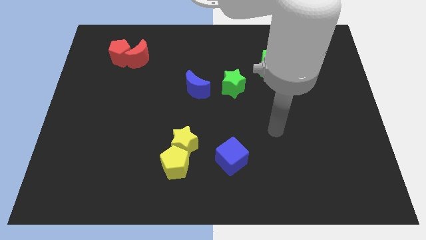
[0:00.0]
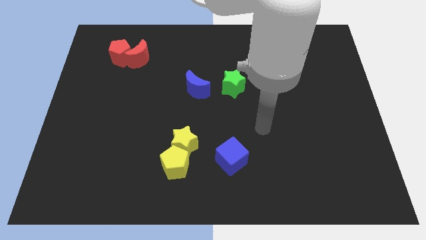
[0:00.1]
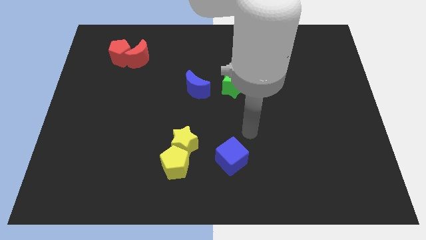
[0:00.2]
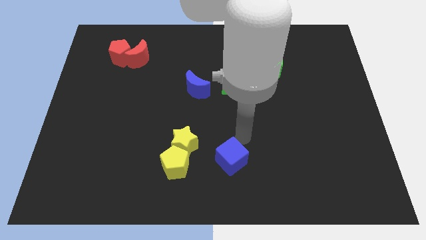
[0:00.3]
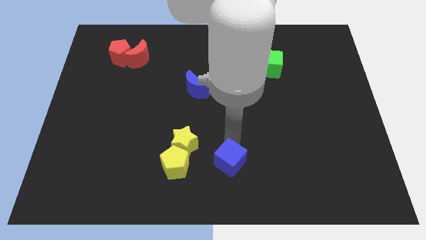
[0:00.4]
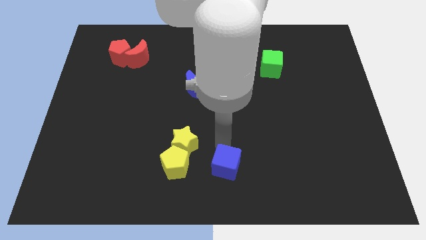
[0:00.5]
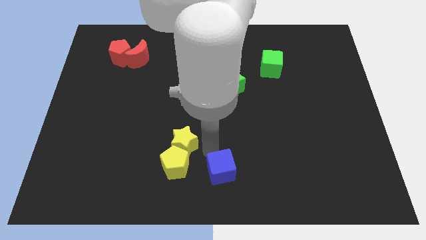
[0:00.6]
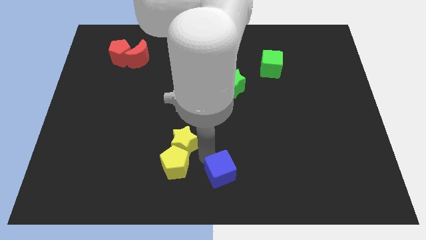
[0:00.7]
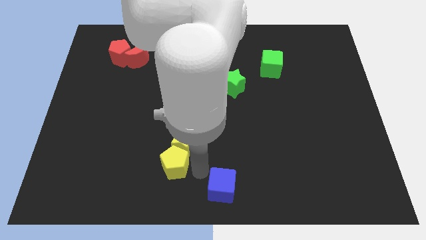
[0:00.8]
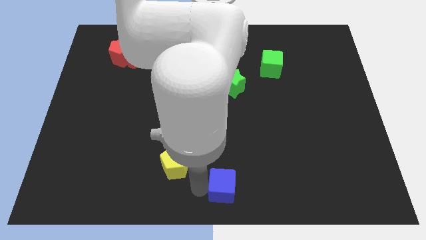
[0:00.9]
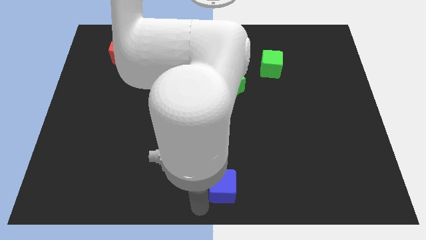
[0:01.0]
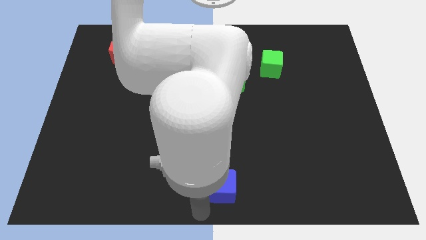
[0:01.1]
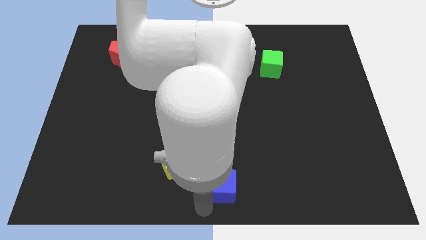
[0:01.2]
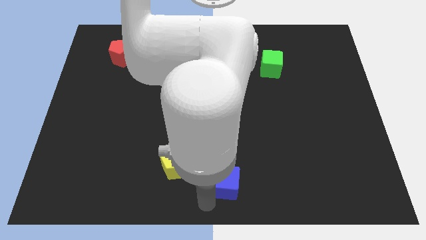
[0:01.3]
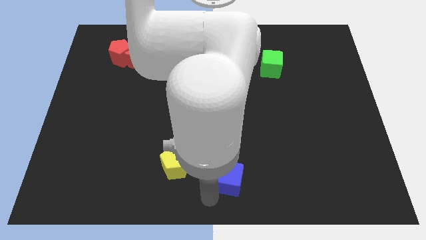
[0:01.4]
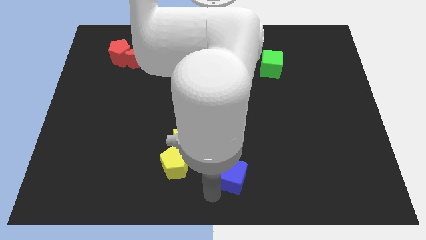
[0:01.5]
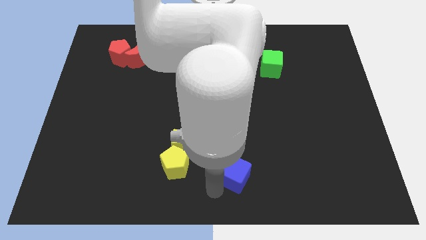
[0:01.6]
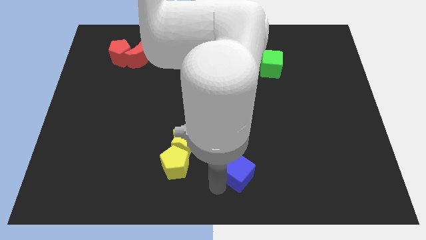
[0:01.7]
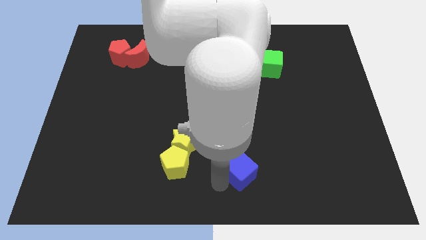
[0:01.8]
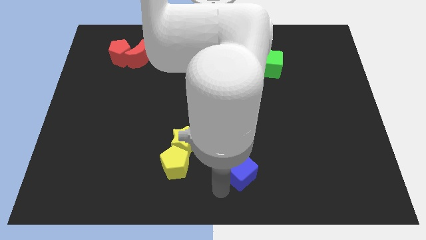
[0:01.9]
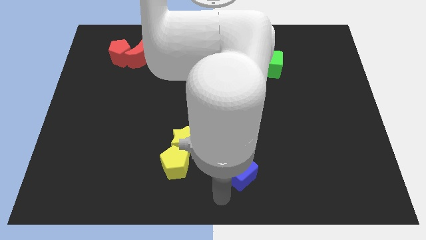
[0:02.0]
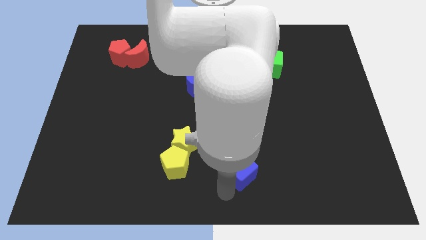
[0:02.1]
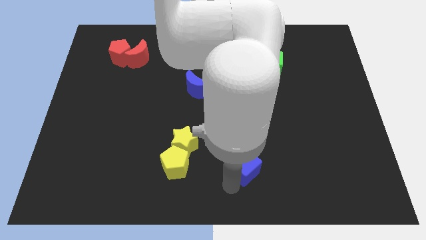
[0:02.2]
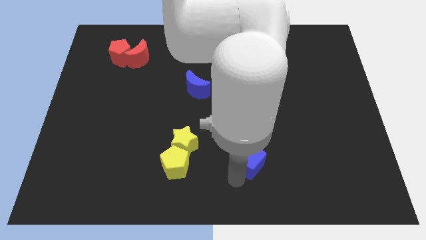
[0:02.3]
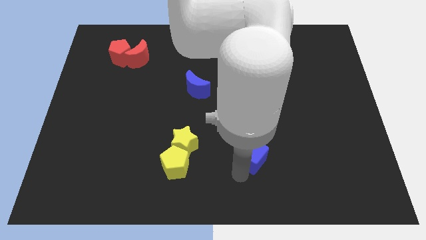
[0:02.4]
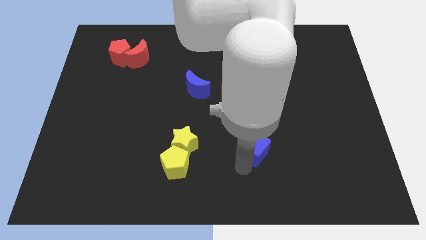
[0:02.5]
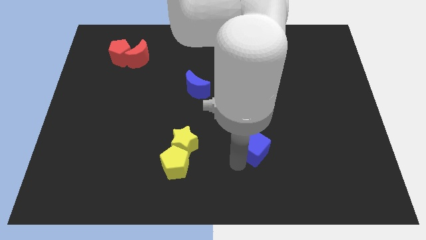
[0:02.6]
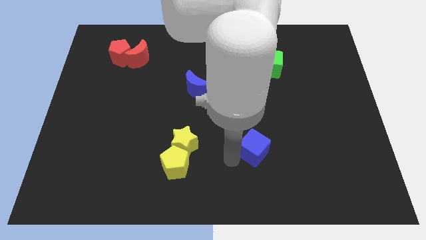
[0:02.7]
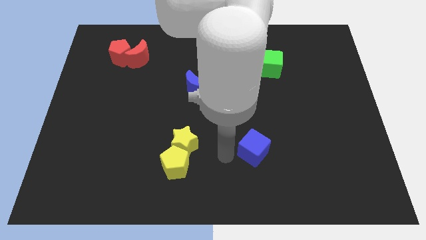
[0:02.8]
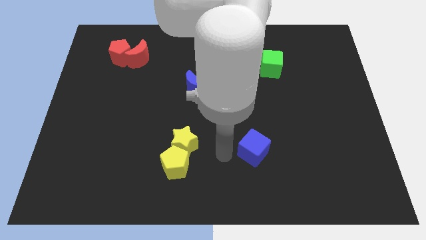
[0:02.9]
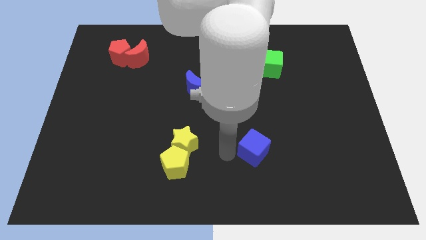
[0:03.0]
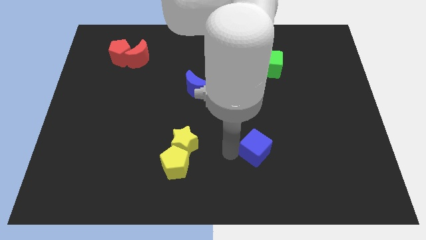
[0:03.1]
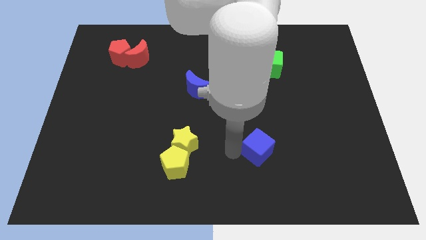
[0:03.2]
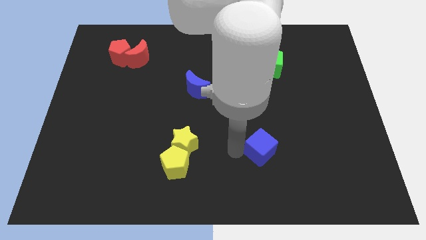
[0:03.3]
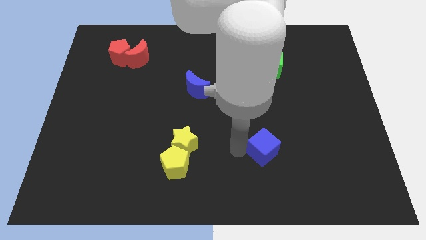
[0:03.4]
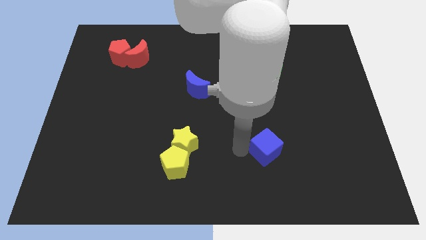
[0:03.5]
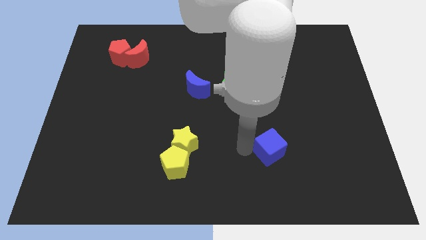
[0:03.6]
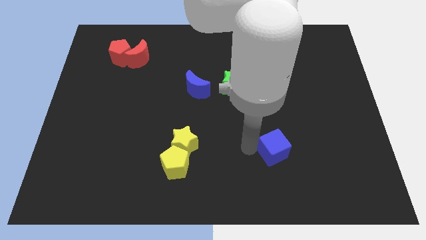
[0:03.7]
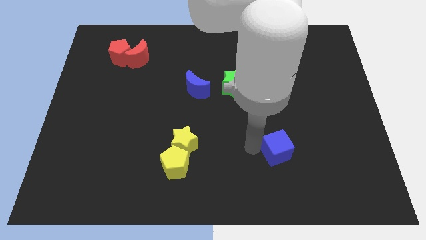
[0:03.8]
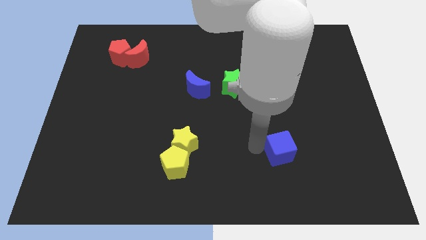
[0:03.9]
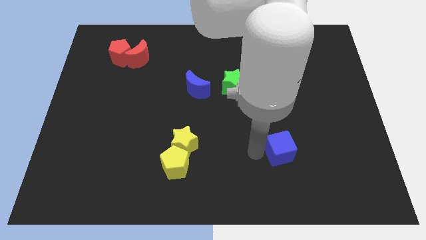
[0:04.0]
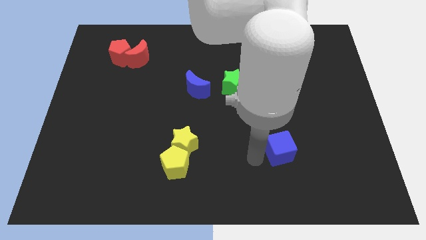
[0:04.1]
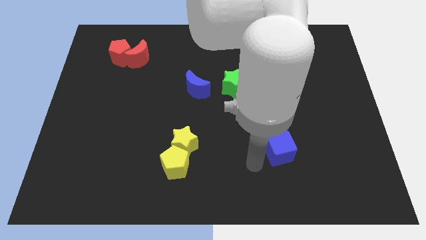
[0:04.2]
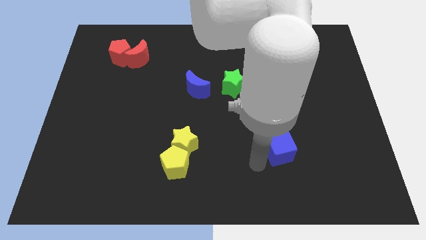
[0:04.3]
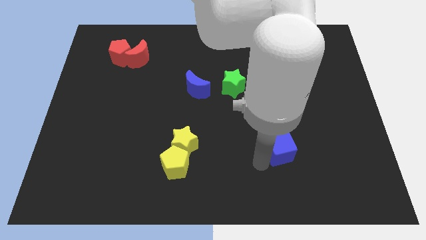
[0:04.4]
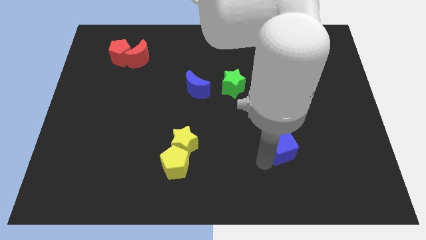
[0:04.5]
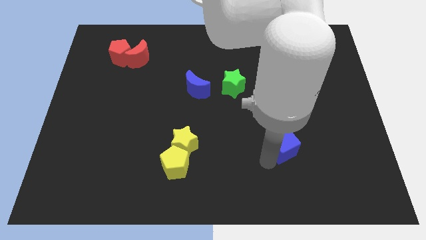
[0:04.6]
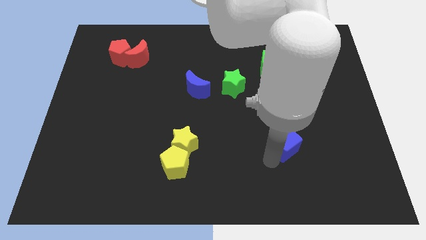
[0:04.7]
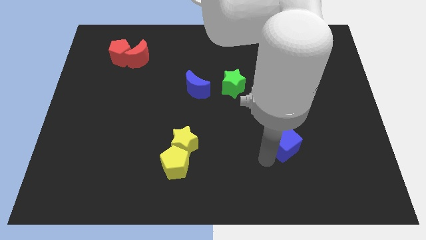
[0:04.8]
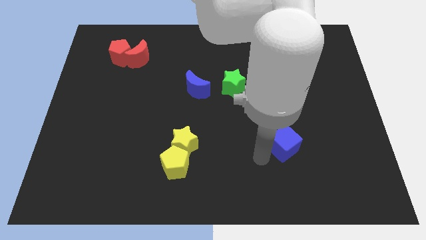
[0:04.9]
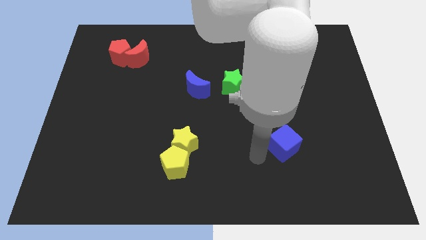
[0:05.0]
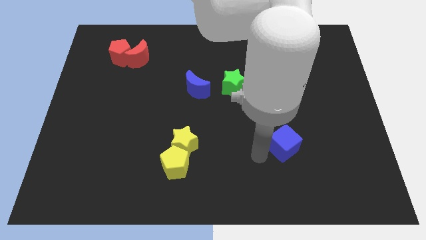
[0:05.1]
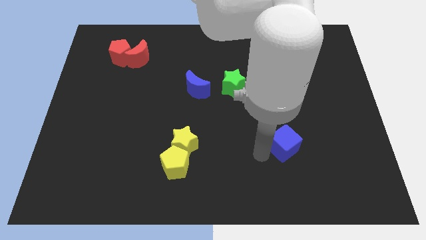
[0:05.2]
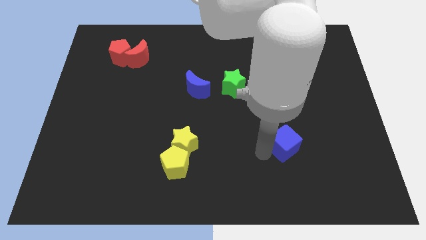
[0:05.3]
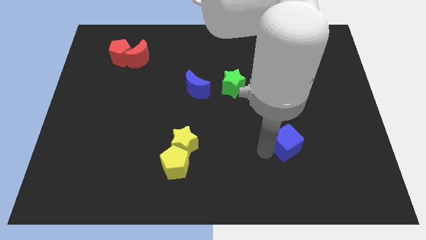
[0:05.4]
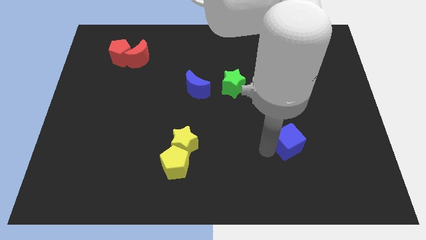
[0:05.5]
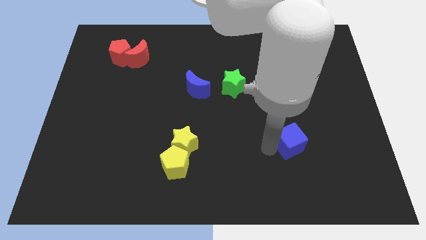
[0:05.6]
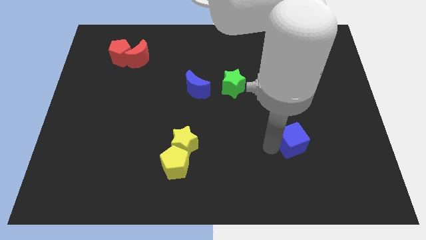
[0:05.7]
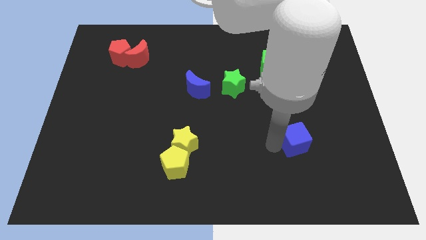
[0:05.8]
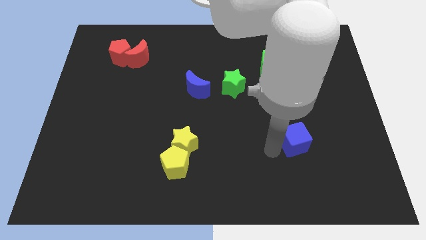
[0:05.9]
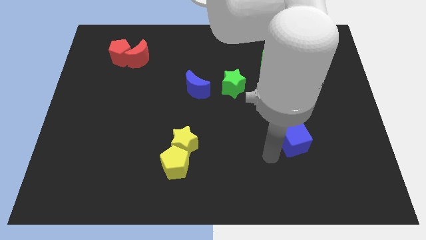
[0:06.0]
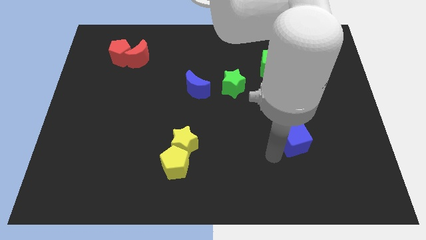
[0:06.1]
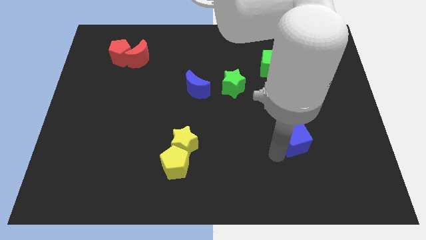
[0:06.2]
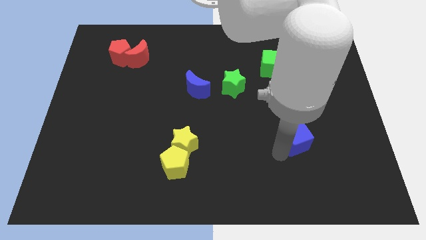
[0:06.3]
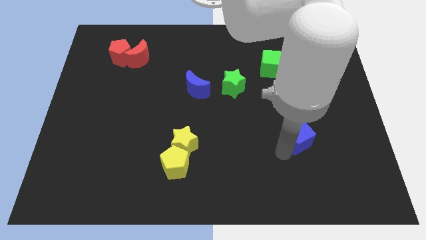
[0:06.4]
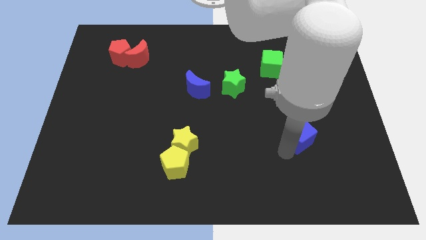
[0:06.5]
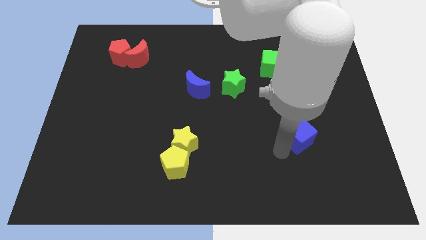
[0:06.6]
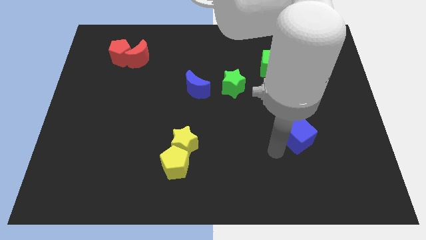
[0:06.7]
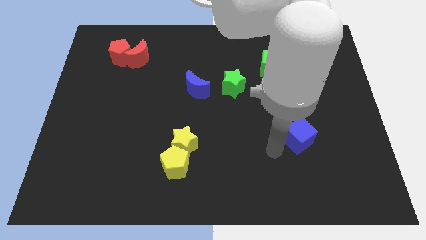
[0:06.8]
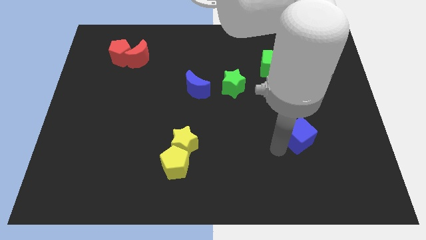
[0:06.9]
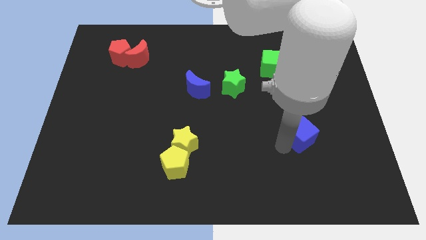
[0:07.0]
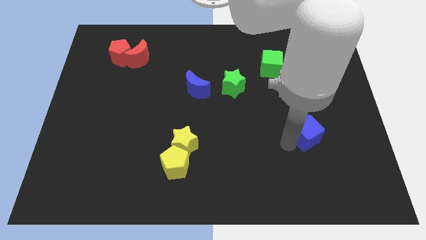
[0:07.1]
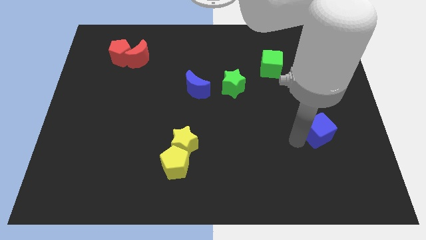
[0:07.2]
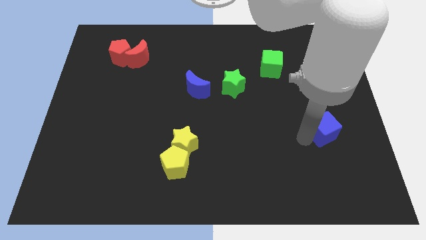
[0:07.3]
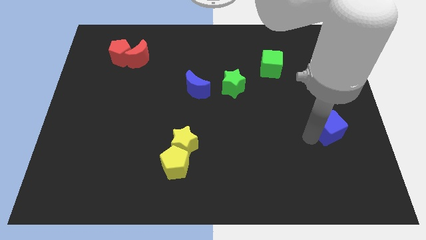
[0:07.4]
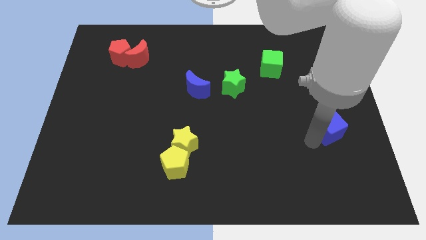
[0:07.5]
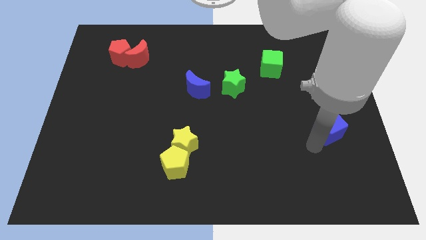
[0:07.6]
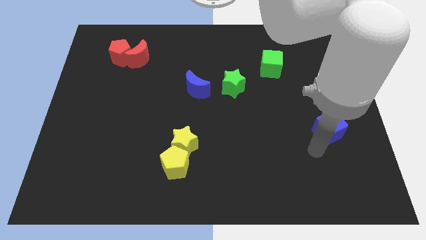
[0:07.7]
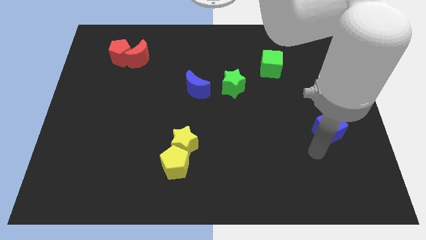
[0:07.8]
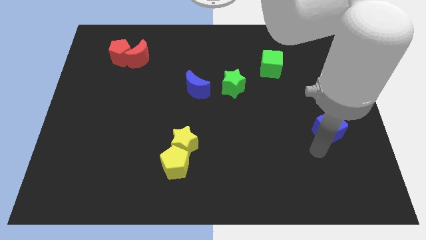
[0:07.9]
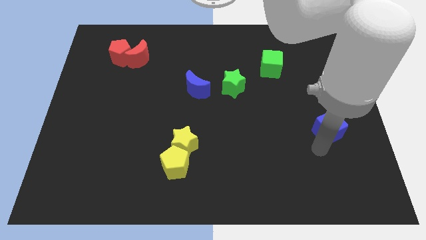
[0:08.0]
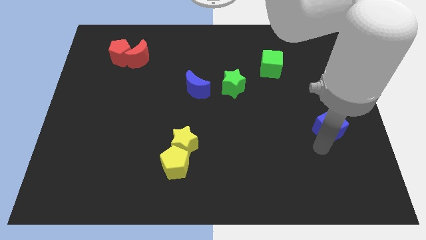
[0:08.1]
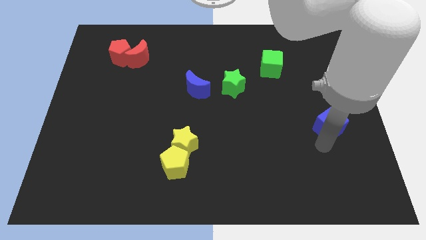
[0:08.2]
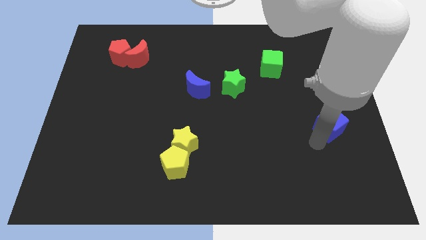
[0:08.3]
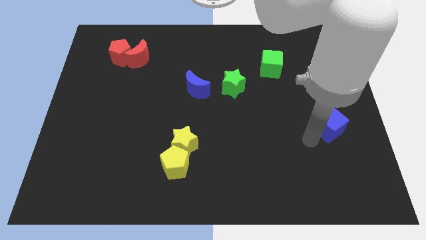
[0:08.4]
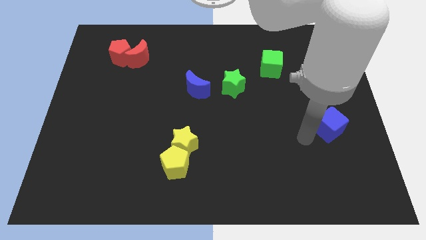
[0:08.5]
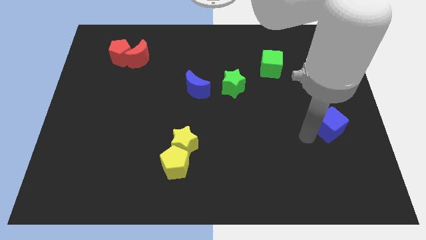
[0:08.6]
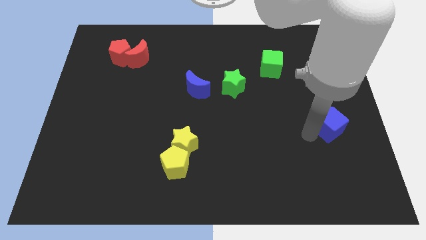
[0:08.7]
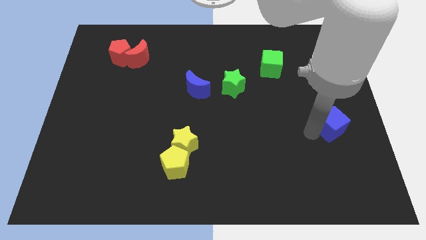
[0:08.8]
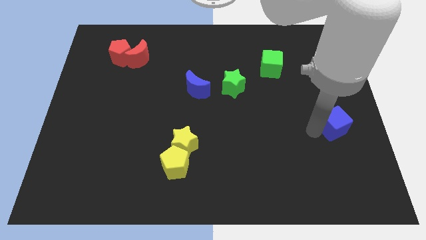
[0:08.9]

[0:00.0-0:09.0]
put the blue cube to the center right
